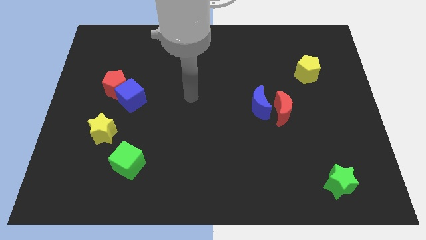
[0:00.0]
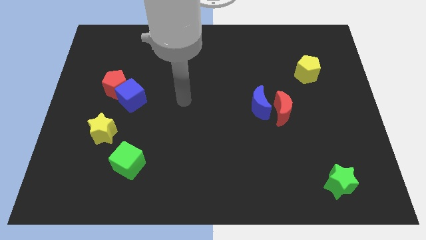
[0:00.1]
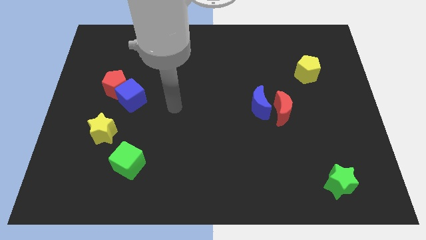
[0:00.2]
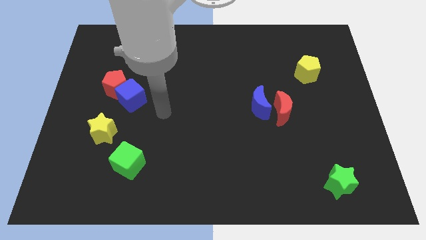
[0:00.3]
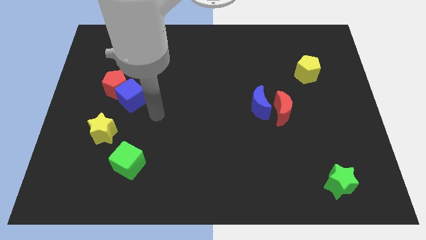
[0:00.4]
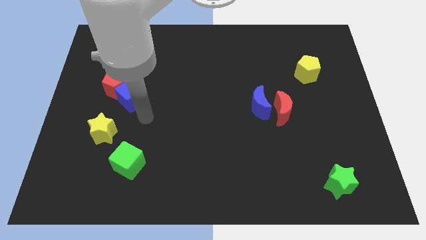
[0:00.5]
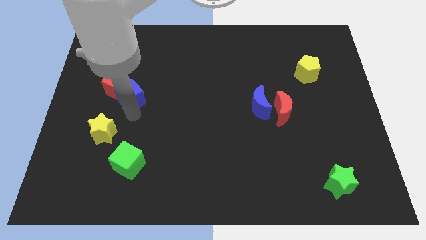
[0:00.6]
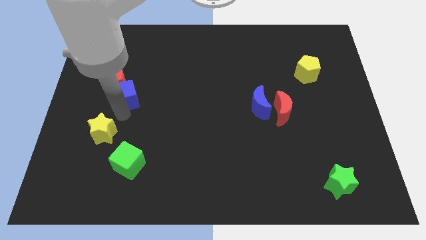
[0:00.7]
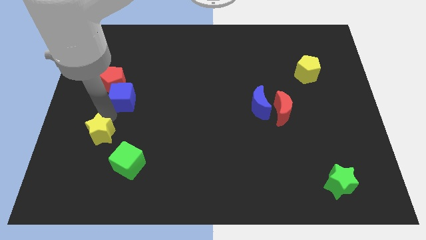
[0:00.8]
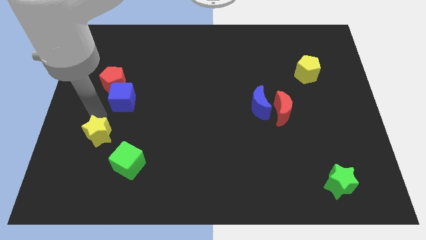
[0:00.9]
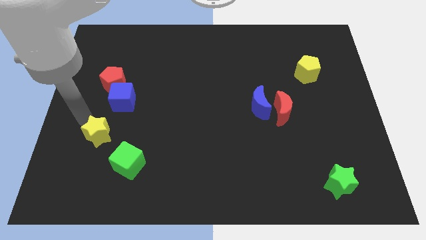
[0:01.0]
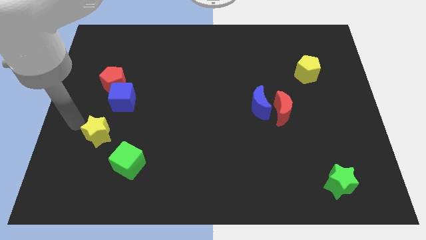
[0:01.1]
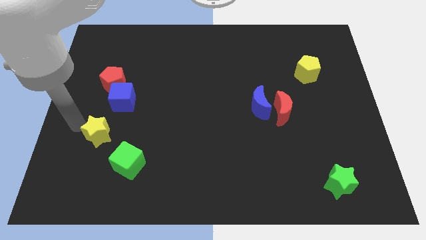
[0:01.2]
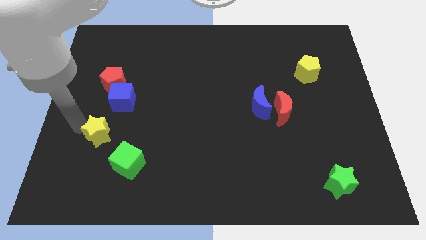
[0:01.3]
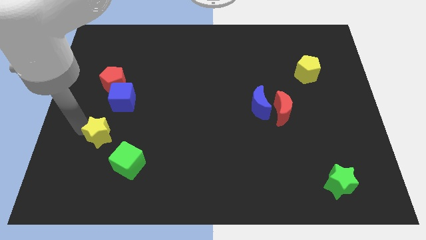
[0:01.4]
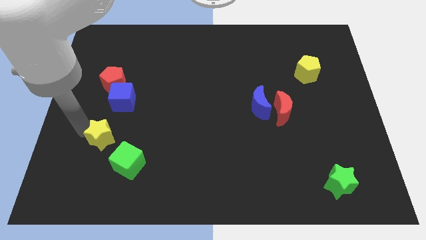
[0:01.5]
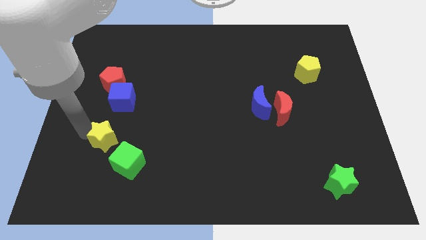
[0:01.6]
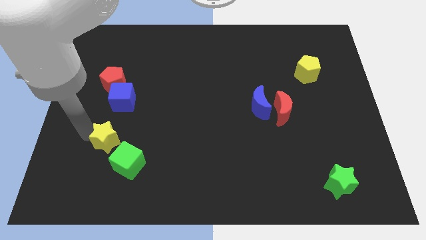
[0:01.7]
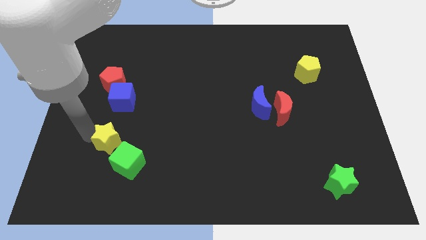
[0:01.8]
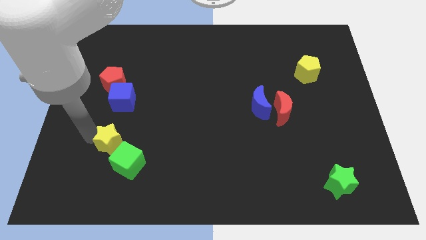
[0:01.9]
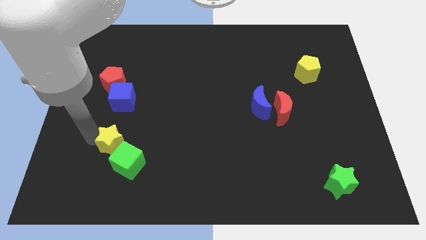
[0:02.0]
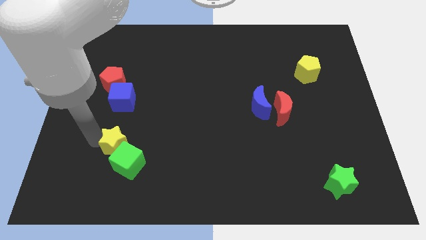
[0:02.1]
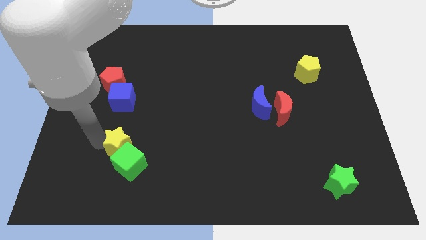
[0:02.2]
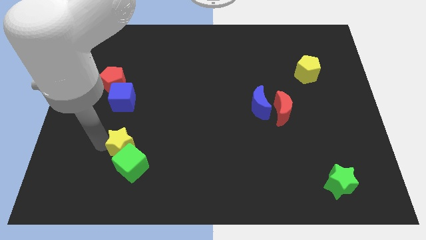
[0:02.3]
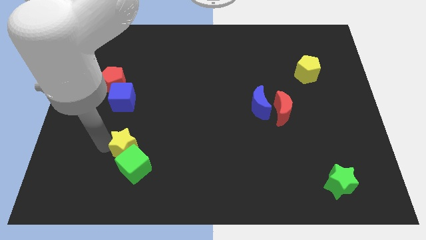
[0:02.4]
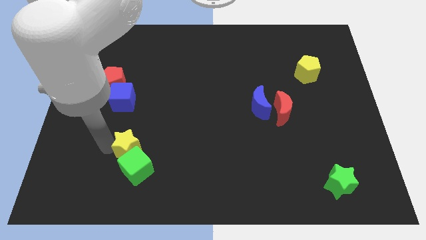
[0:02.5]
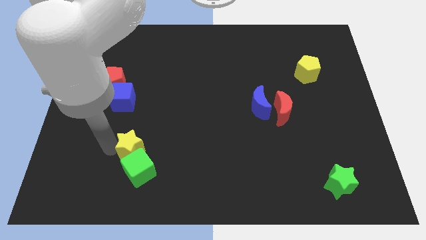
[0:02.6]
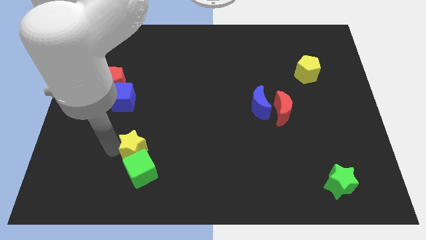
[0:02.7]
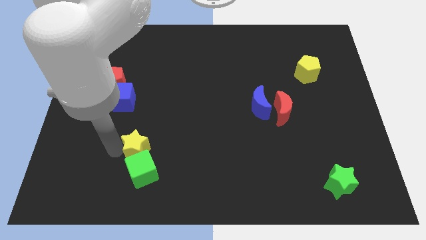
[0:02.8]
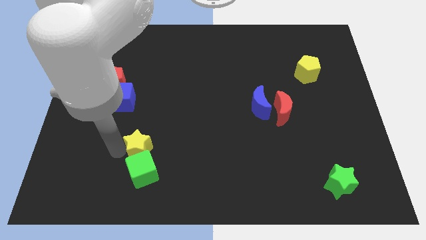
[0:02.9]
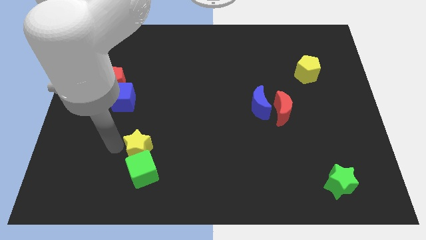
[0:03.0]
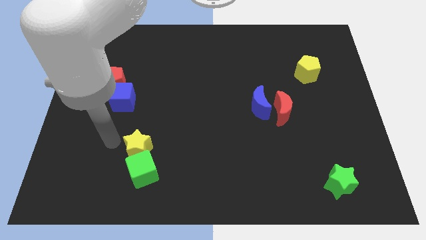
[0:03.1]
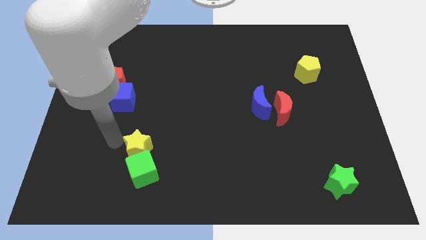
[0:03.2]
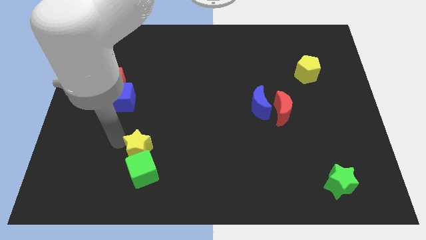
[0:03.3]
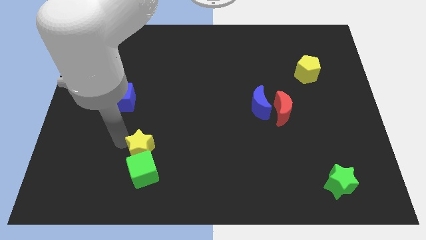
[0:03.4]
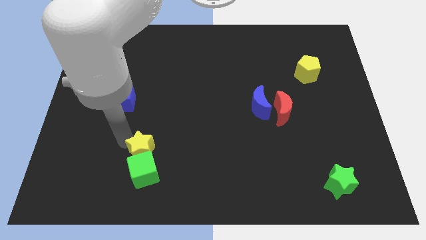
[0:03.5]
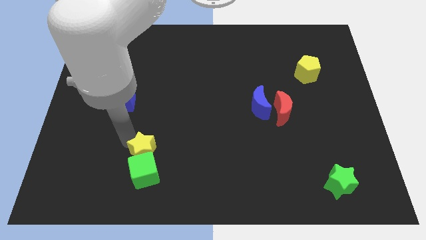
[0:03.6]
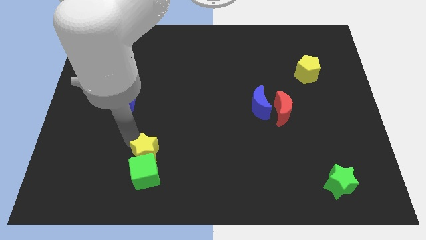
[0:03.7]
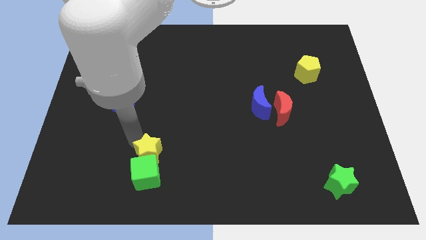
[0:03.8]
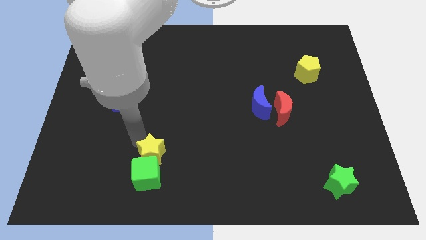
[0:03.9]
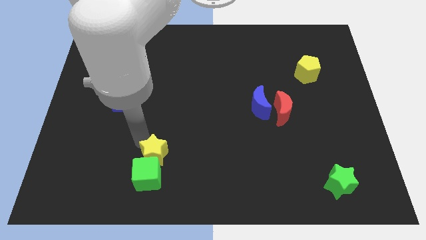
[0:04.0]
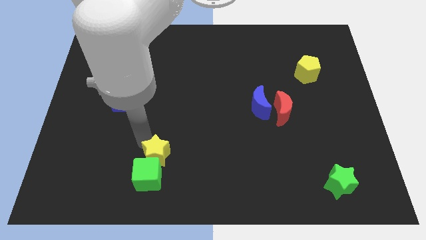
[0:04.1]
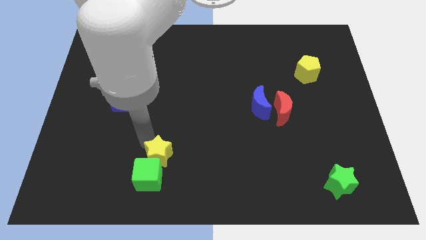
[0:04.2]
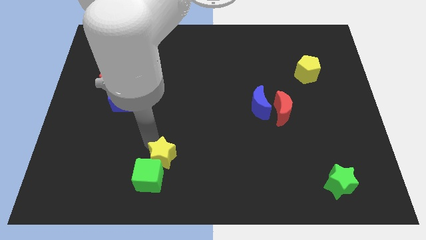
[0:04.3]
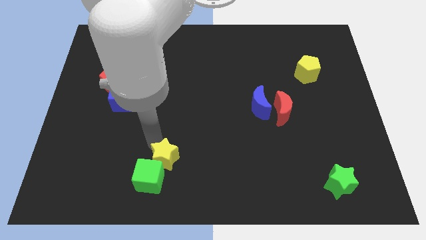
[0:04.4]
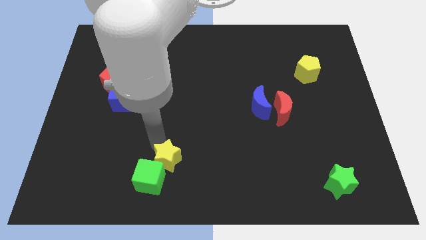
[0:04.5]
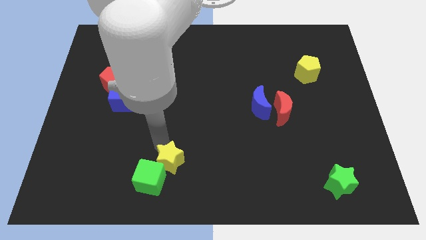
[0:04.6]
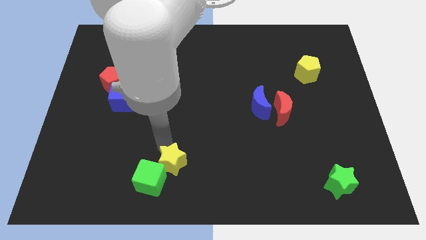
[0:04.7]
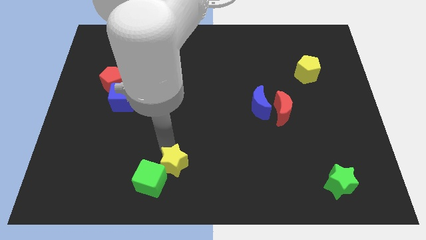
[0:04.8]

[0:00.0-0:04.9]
slide the yellow star to the bottom side

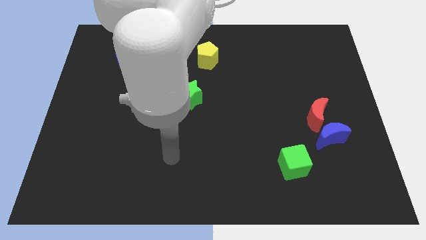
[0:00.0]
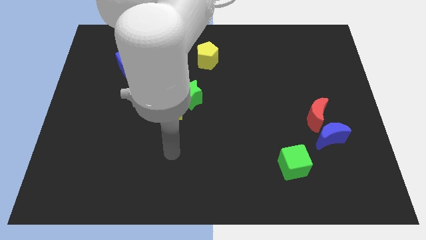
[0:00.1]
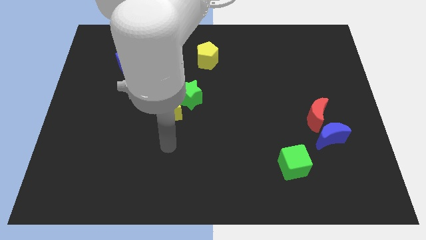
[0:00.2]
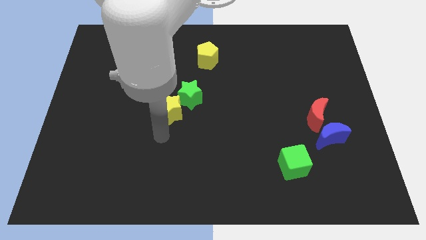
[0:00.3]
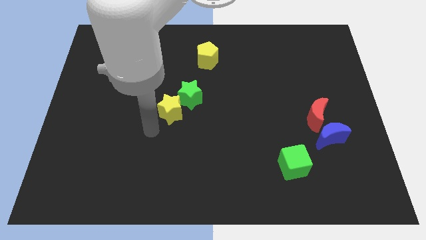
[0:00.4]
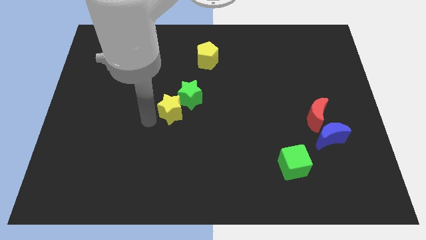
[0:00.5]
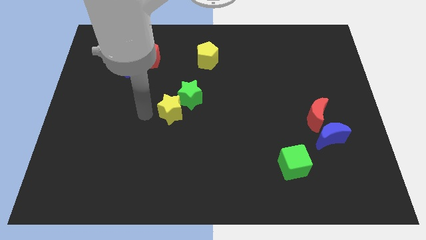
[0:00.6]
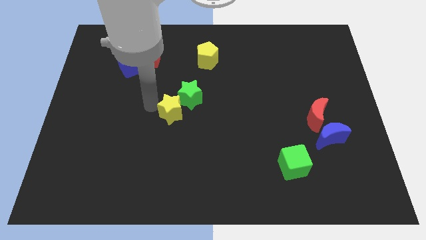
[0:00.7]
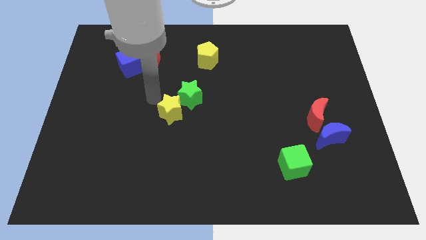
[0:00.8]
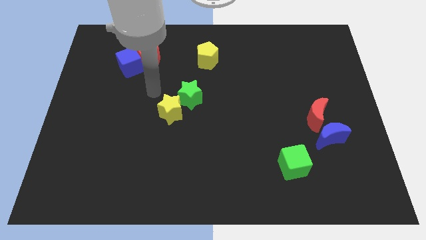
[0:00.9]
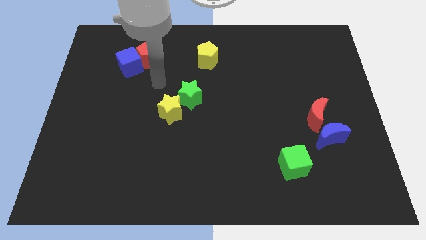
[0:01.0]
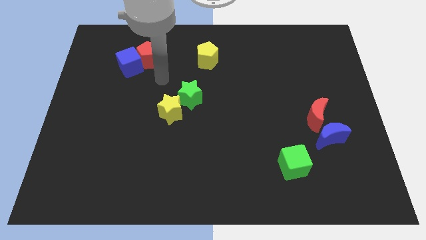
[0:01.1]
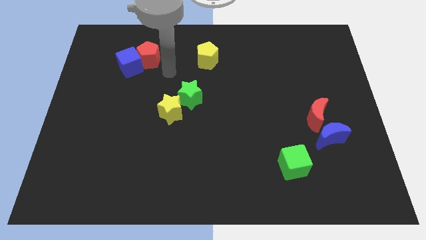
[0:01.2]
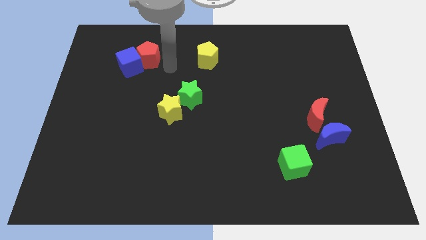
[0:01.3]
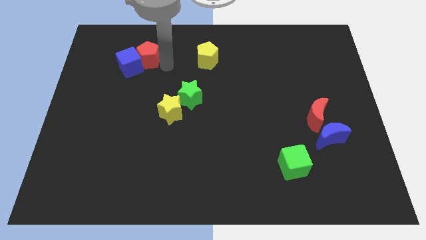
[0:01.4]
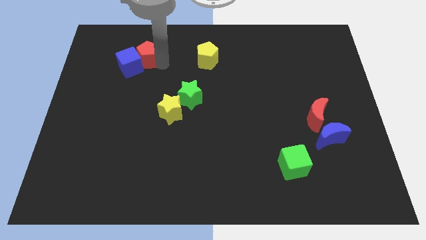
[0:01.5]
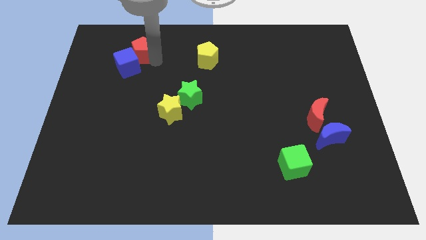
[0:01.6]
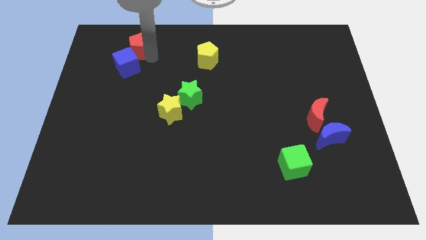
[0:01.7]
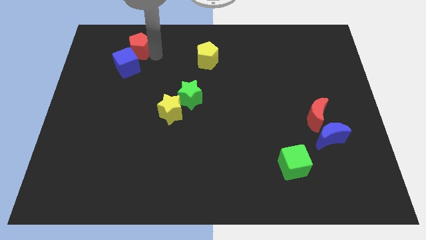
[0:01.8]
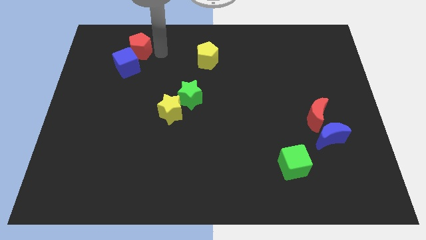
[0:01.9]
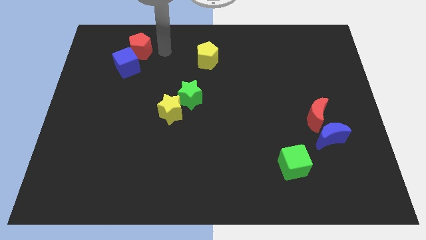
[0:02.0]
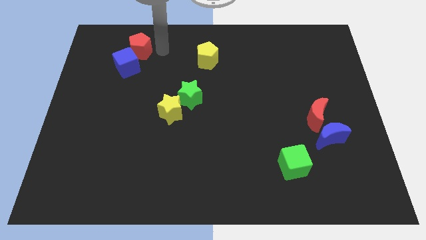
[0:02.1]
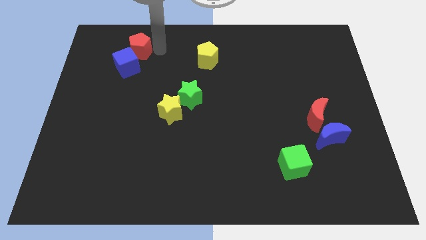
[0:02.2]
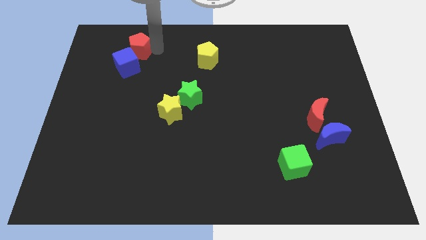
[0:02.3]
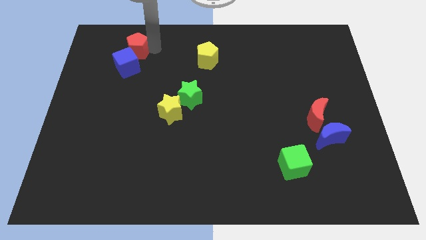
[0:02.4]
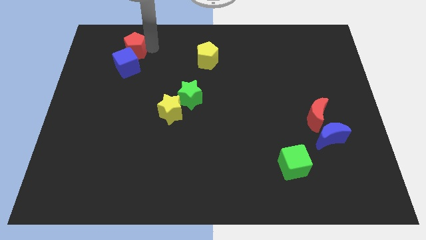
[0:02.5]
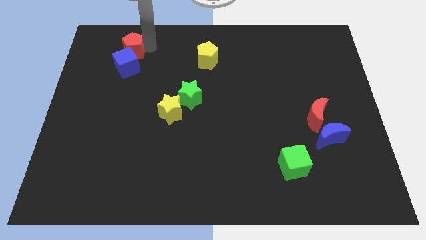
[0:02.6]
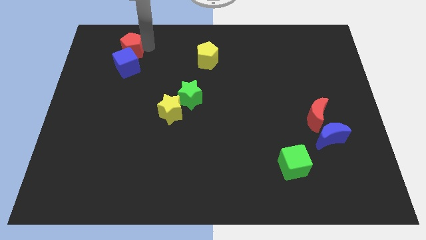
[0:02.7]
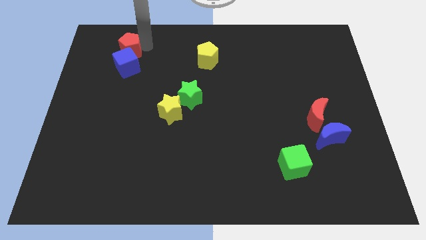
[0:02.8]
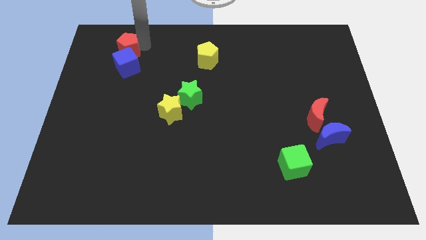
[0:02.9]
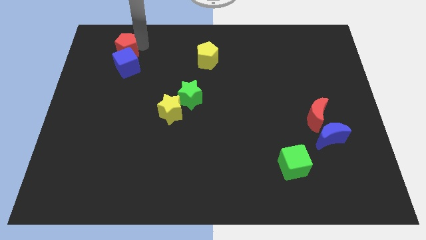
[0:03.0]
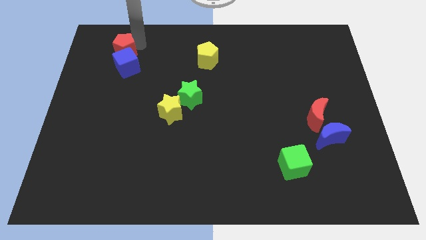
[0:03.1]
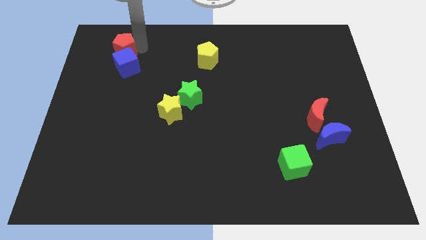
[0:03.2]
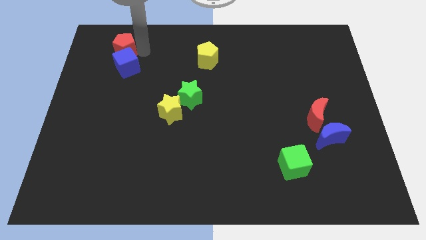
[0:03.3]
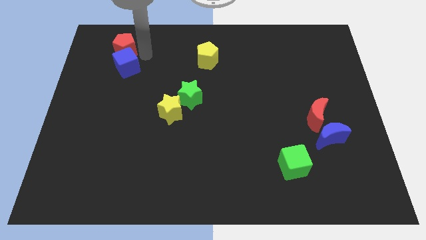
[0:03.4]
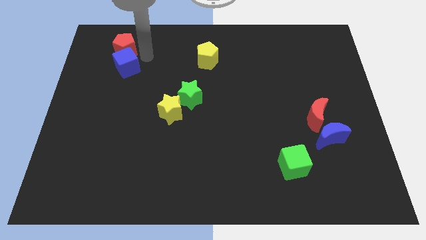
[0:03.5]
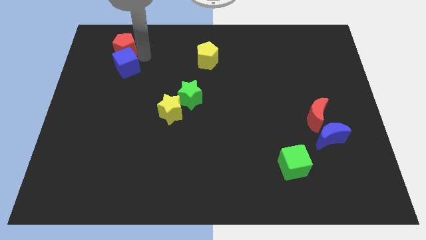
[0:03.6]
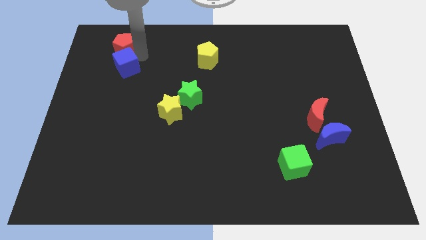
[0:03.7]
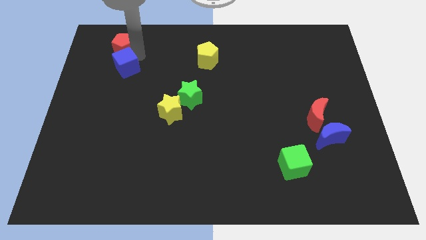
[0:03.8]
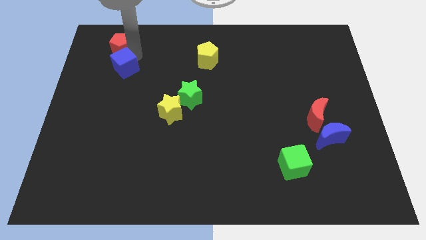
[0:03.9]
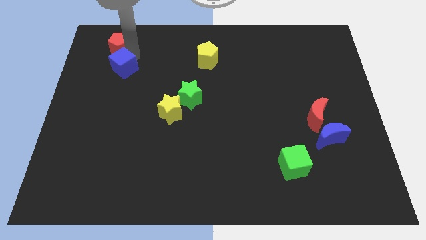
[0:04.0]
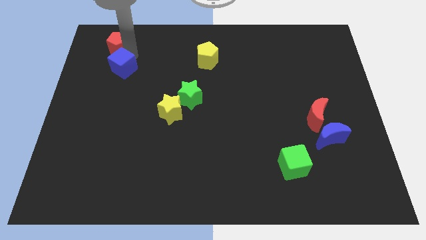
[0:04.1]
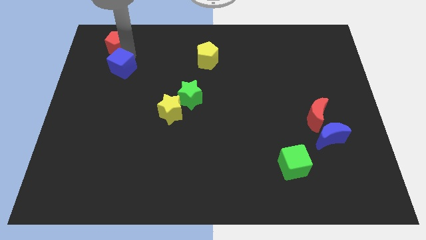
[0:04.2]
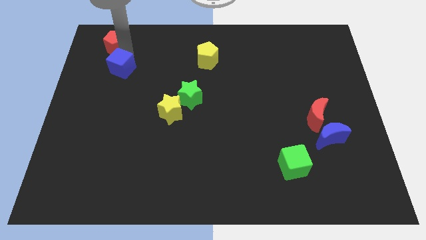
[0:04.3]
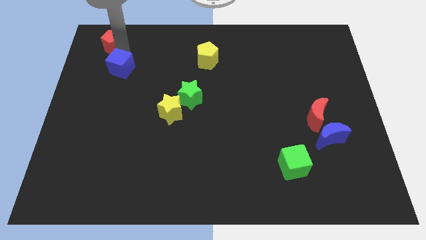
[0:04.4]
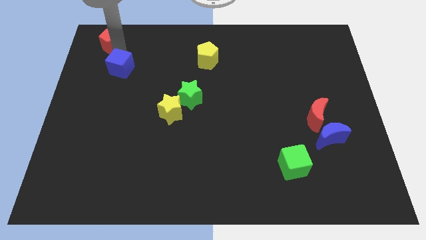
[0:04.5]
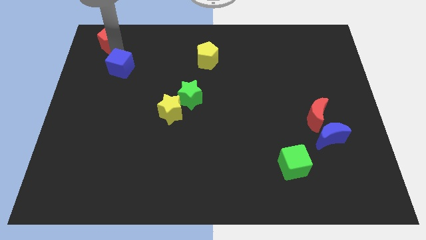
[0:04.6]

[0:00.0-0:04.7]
slide the red pentagon to the top left corner
